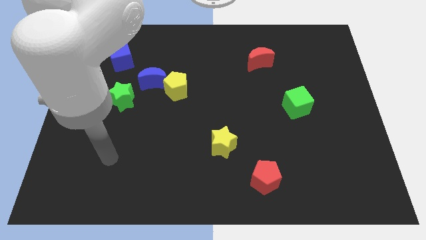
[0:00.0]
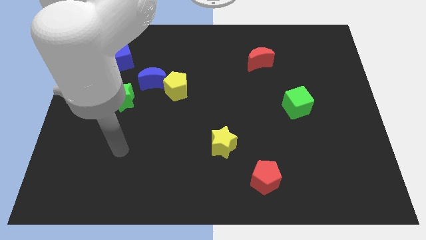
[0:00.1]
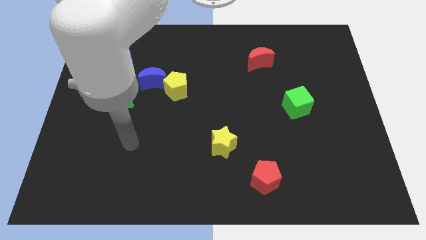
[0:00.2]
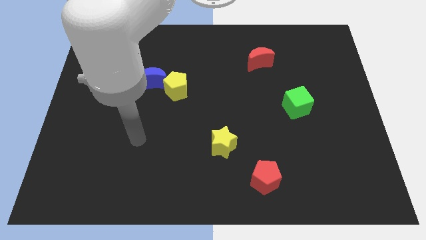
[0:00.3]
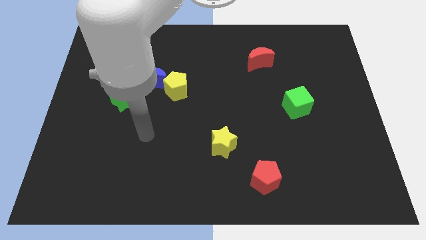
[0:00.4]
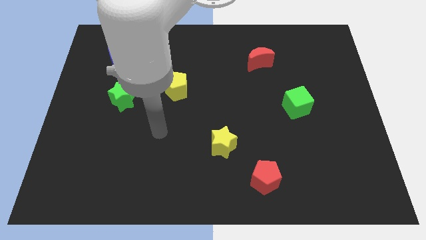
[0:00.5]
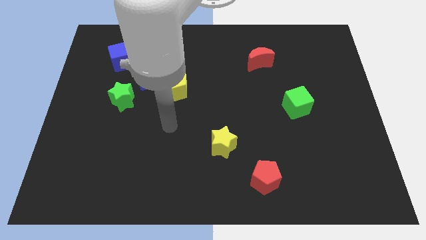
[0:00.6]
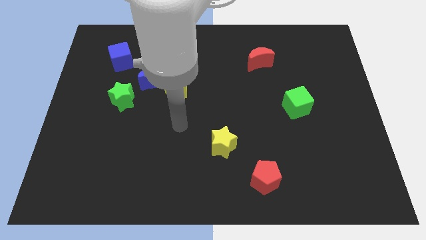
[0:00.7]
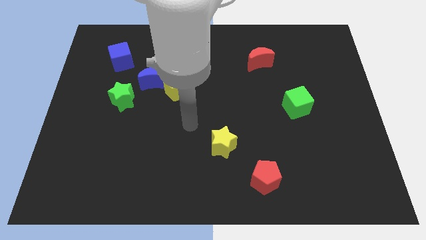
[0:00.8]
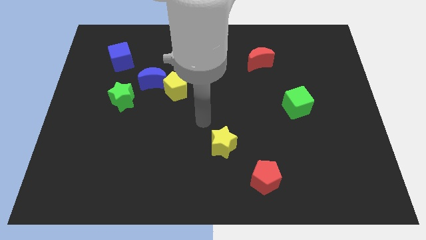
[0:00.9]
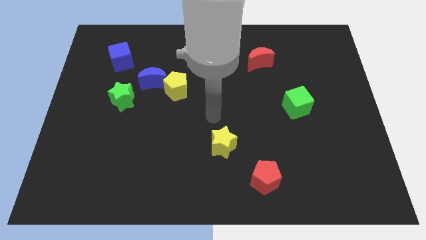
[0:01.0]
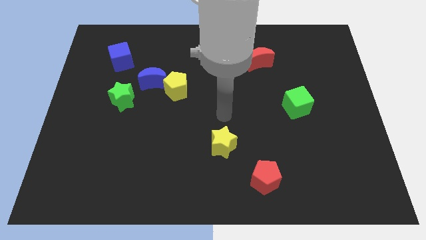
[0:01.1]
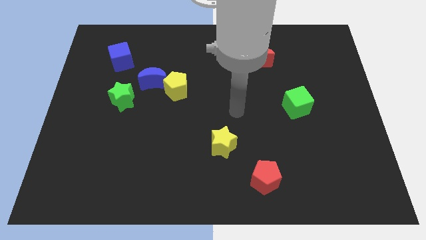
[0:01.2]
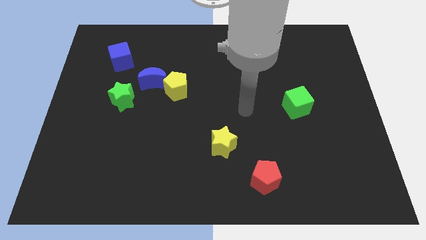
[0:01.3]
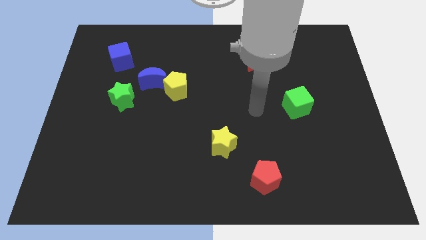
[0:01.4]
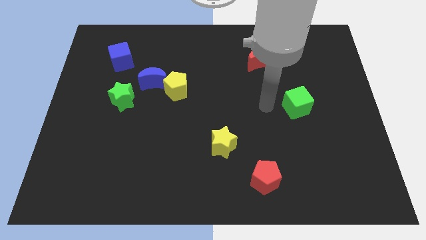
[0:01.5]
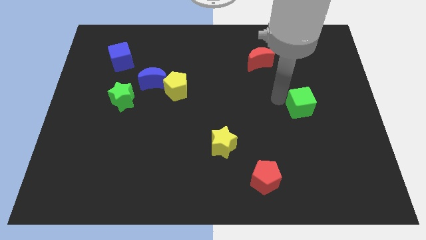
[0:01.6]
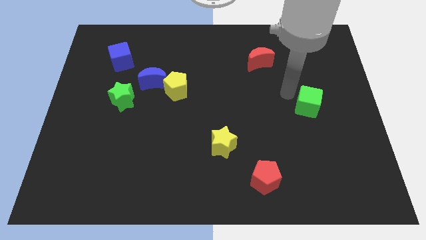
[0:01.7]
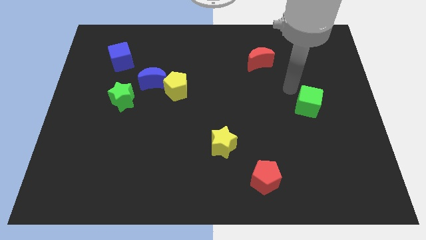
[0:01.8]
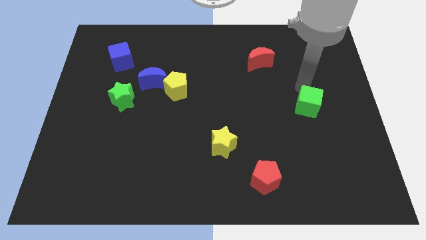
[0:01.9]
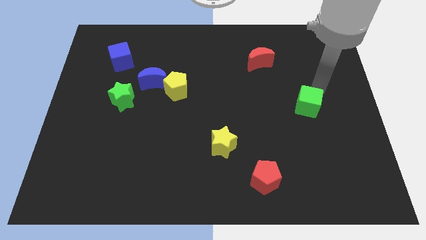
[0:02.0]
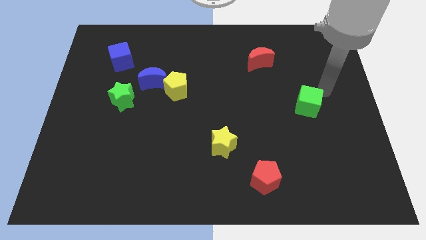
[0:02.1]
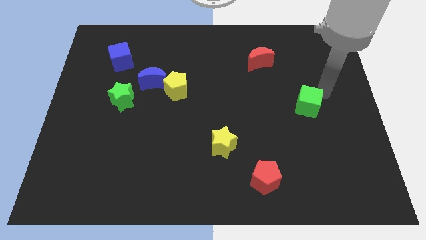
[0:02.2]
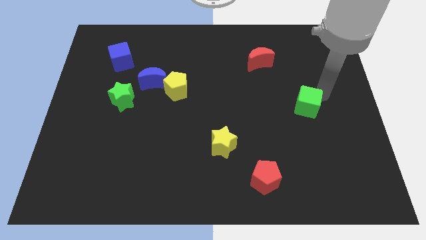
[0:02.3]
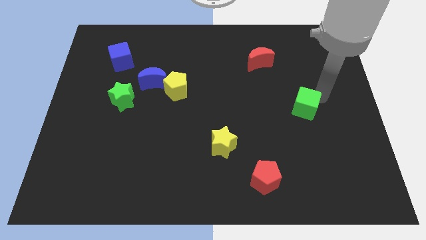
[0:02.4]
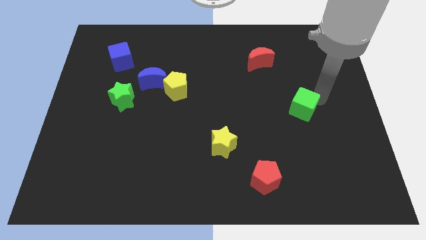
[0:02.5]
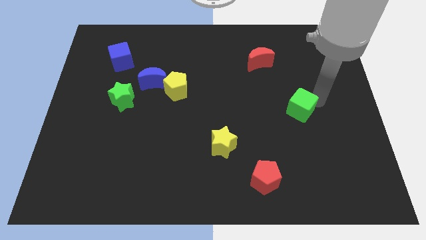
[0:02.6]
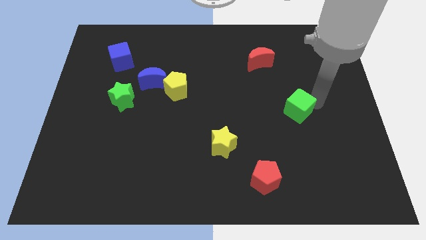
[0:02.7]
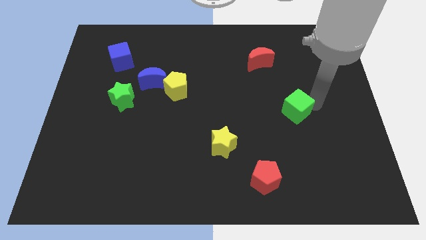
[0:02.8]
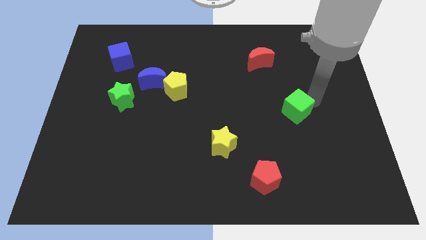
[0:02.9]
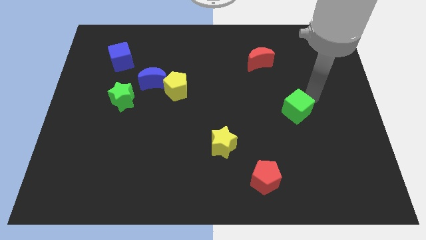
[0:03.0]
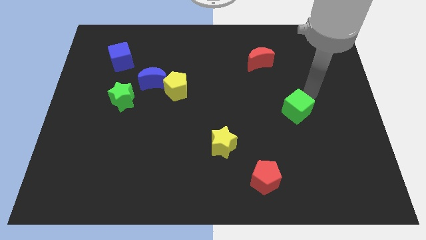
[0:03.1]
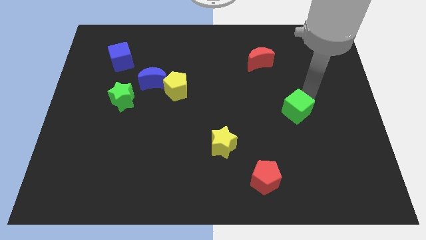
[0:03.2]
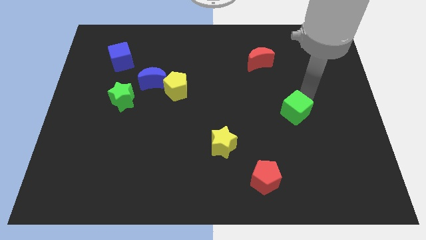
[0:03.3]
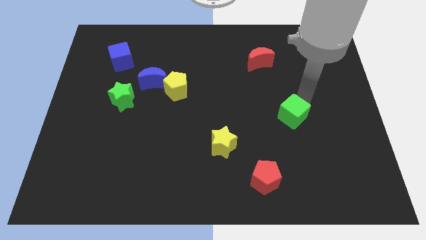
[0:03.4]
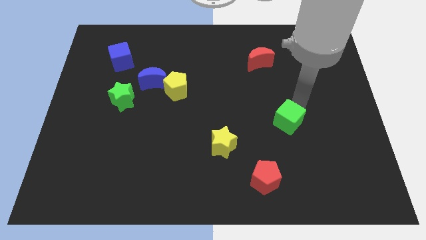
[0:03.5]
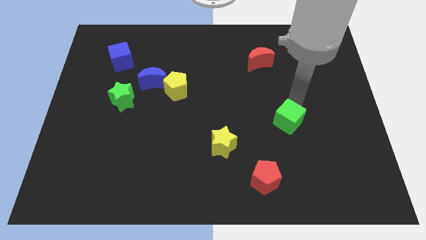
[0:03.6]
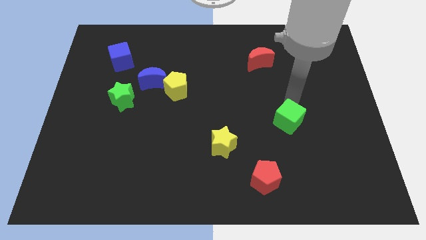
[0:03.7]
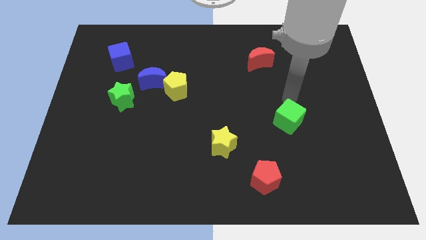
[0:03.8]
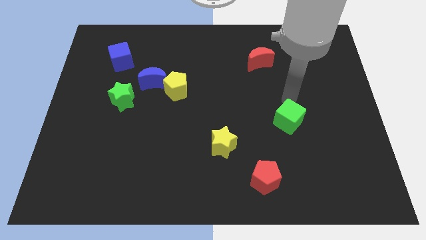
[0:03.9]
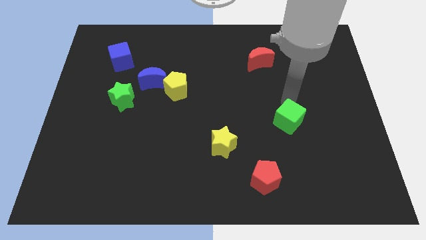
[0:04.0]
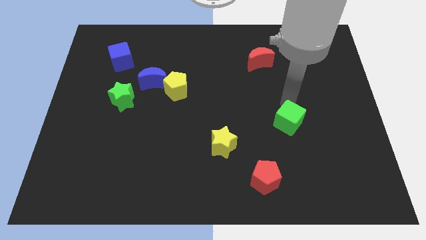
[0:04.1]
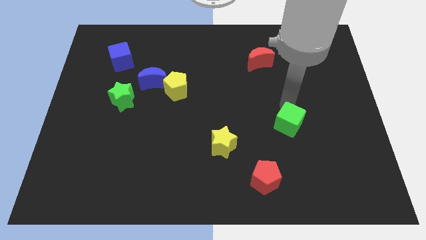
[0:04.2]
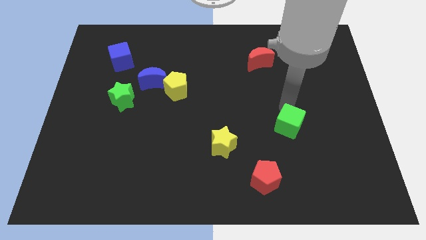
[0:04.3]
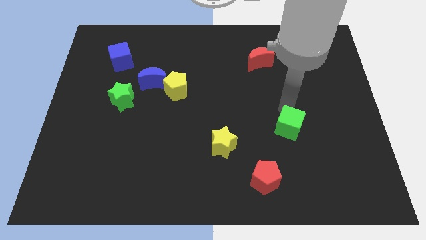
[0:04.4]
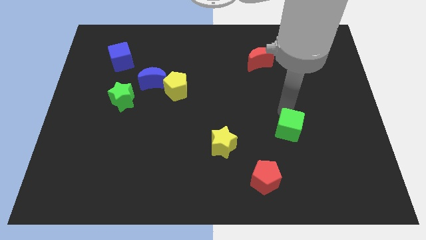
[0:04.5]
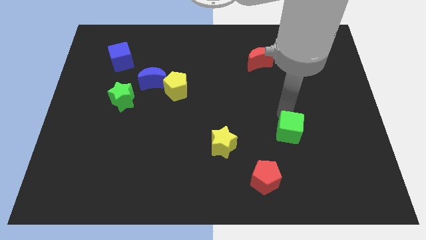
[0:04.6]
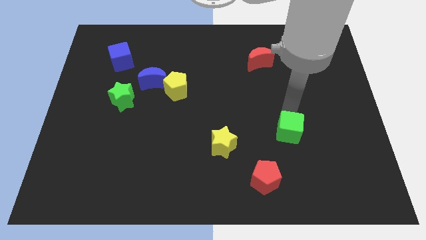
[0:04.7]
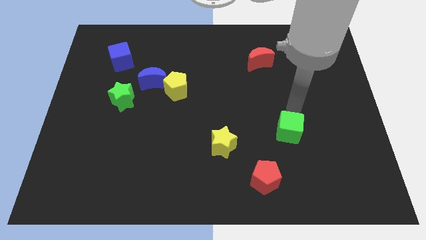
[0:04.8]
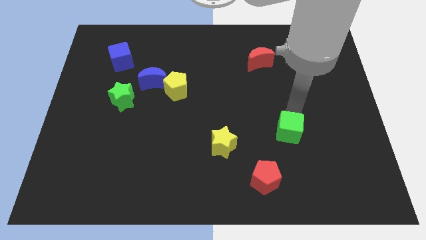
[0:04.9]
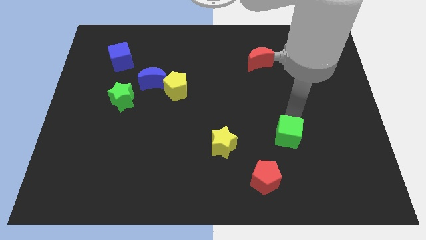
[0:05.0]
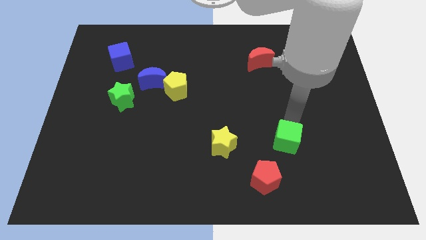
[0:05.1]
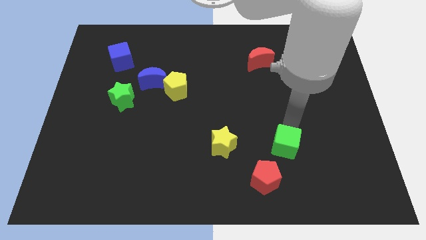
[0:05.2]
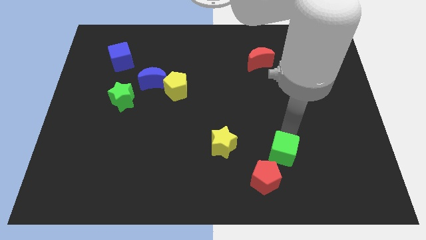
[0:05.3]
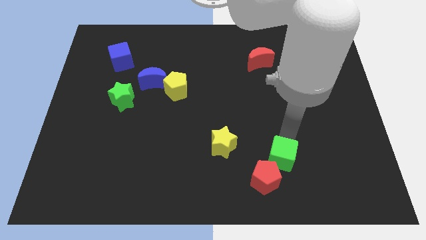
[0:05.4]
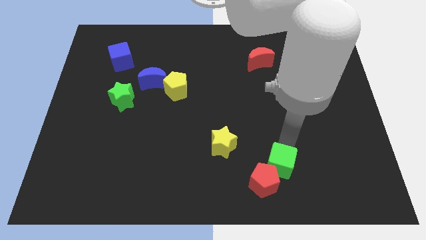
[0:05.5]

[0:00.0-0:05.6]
move the green cube next to the red pentagon

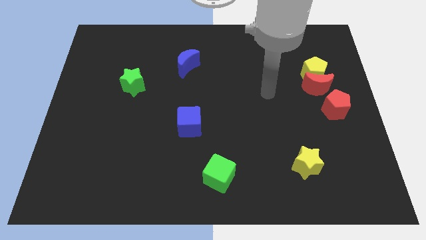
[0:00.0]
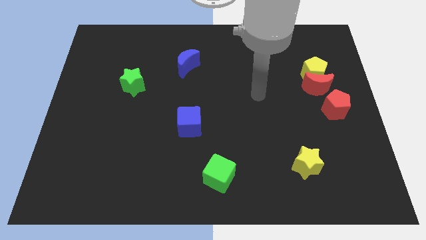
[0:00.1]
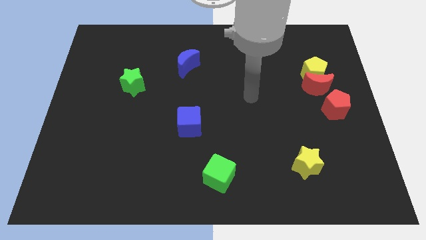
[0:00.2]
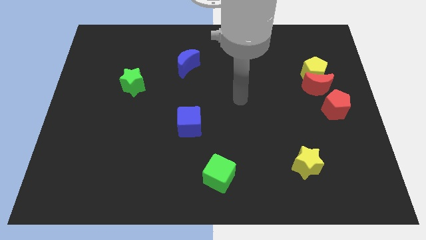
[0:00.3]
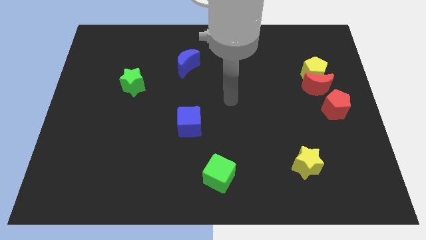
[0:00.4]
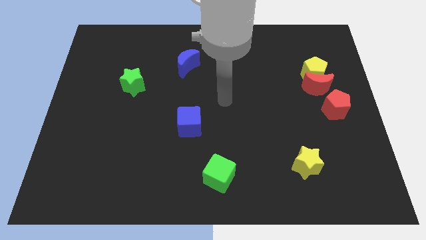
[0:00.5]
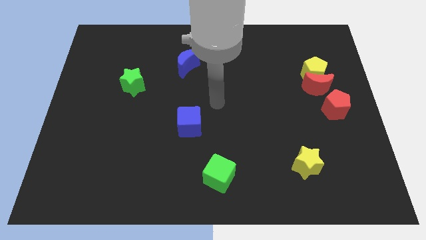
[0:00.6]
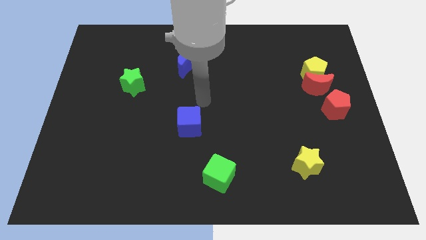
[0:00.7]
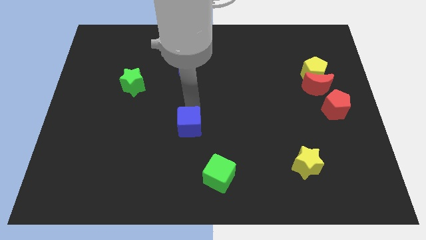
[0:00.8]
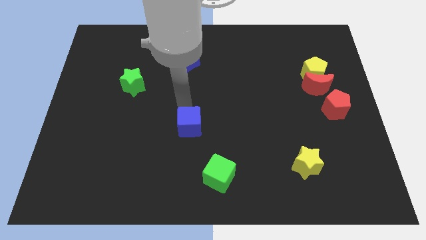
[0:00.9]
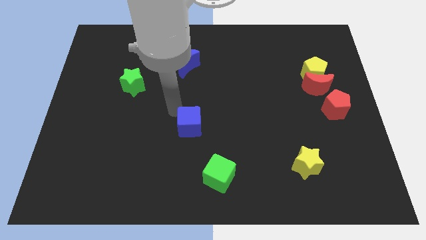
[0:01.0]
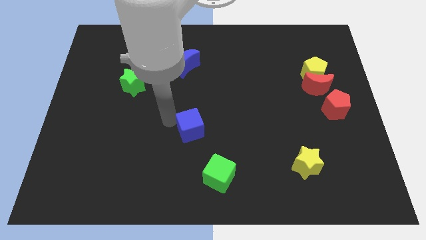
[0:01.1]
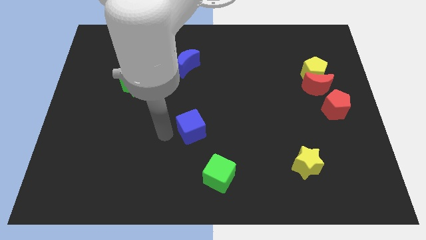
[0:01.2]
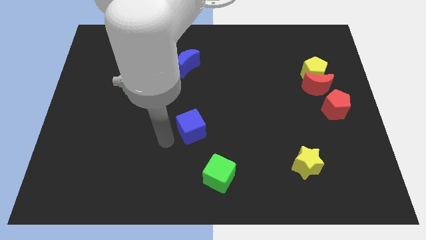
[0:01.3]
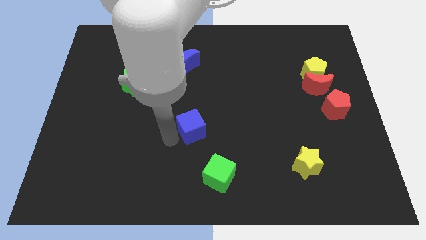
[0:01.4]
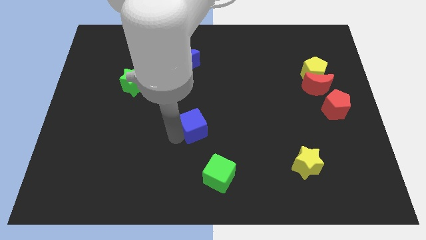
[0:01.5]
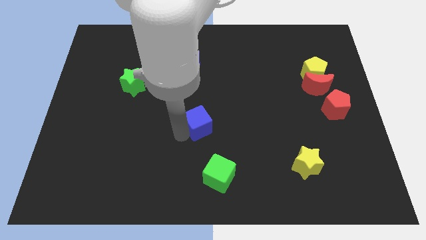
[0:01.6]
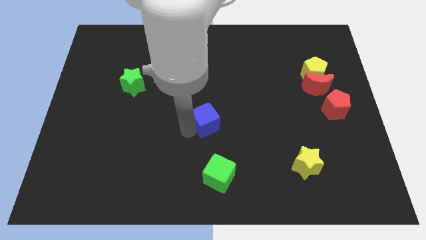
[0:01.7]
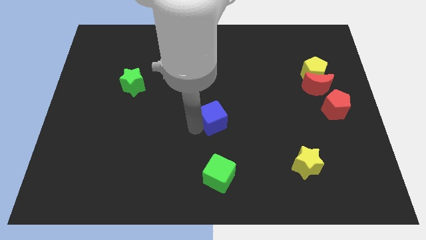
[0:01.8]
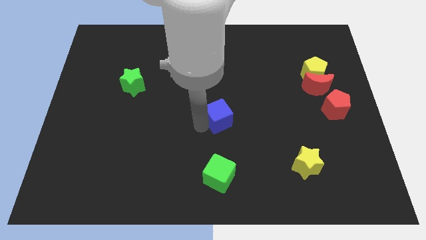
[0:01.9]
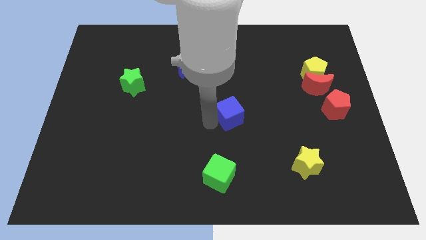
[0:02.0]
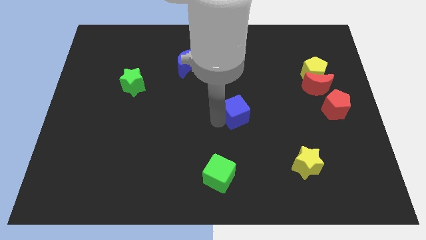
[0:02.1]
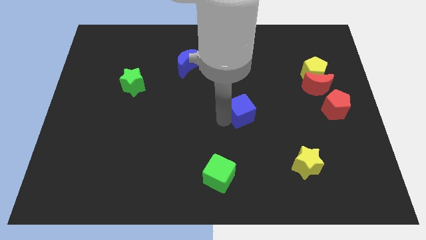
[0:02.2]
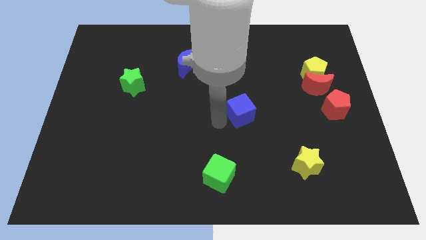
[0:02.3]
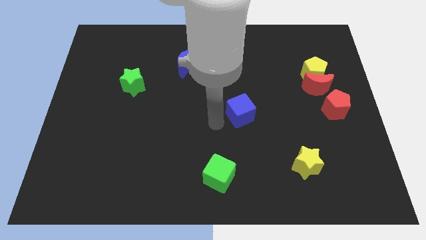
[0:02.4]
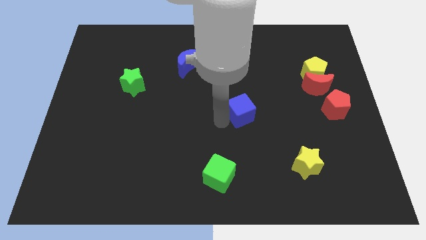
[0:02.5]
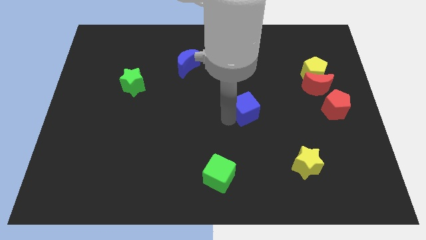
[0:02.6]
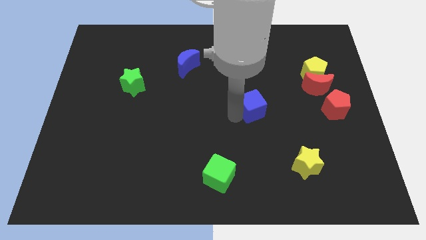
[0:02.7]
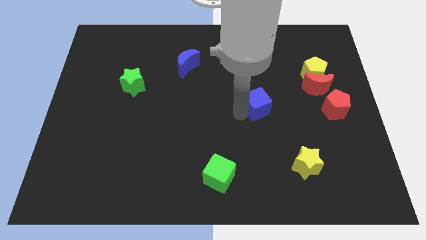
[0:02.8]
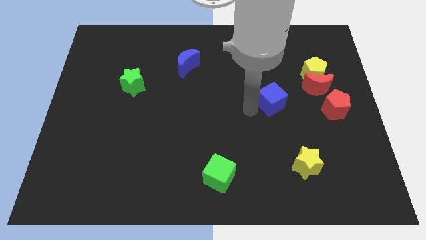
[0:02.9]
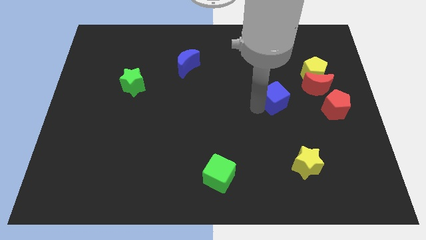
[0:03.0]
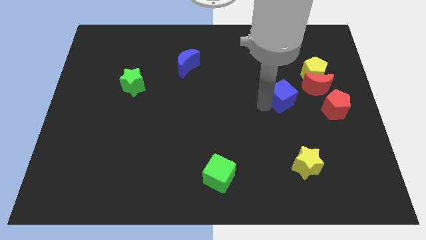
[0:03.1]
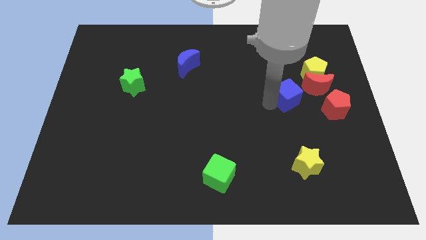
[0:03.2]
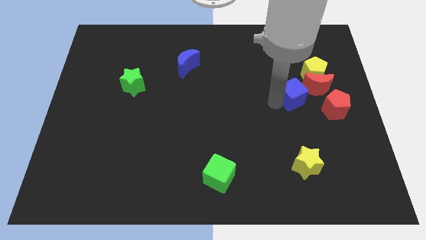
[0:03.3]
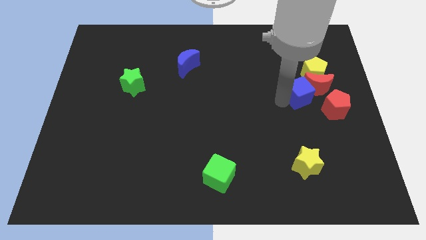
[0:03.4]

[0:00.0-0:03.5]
move the blue cube towards the red moon
